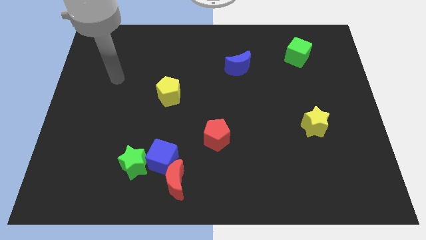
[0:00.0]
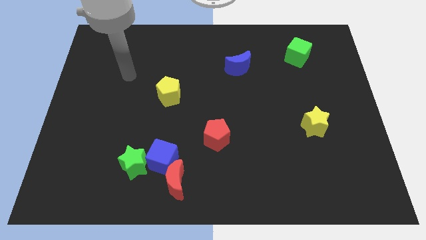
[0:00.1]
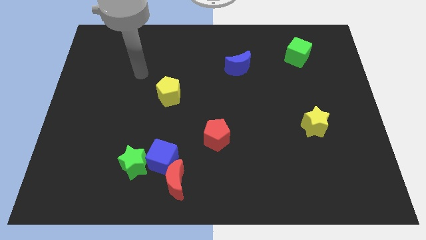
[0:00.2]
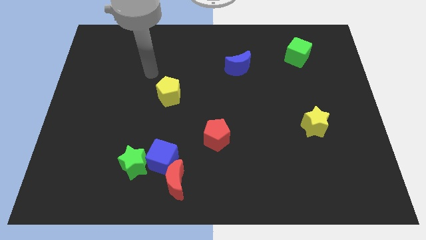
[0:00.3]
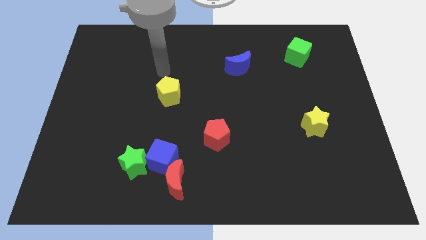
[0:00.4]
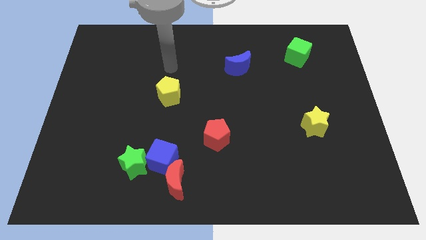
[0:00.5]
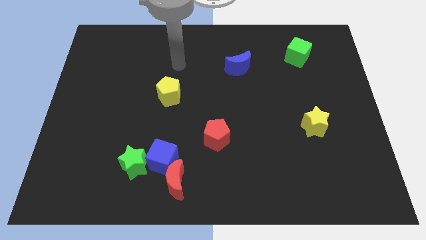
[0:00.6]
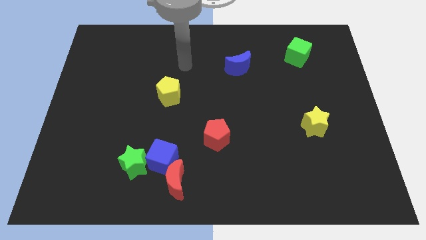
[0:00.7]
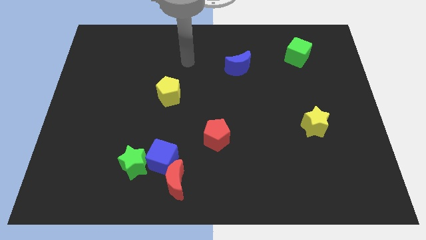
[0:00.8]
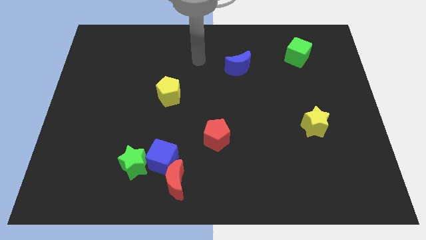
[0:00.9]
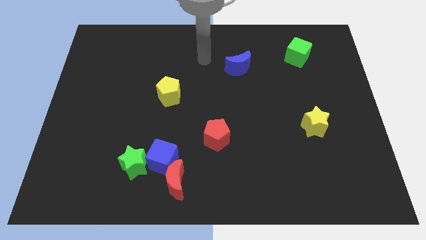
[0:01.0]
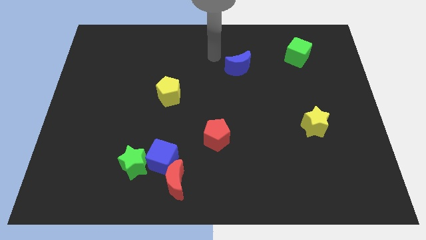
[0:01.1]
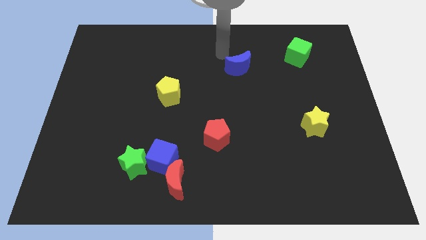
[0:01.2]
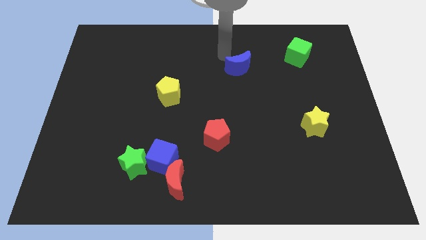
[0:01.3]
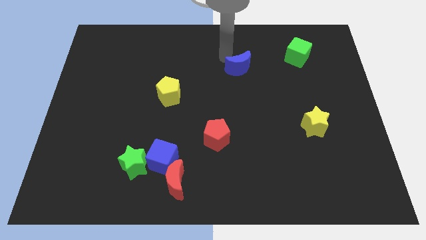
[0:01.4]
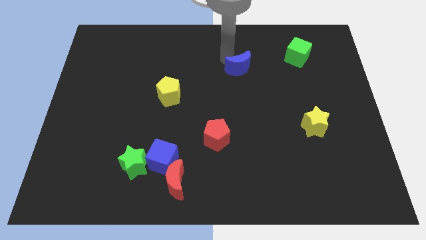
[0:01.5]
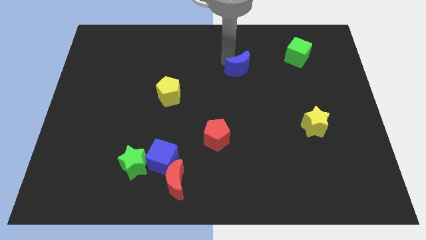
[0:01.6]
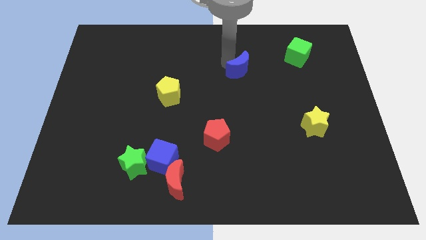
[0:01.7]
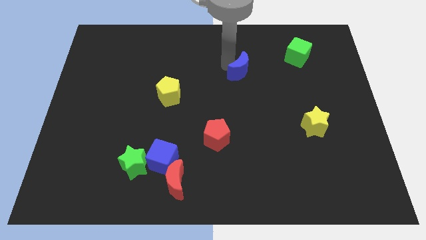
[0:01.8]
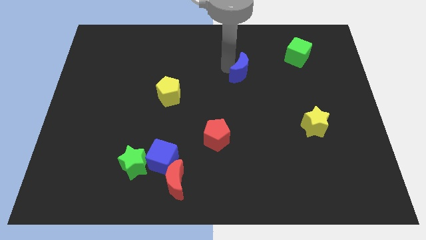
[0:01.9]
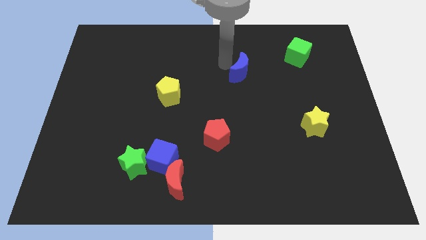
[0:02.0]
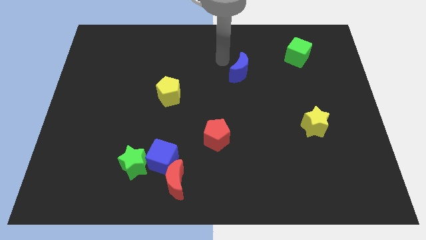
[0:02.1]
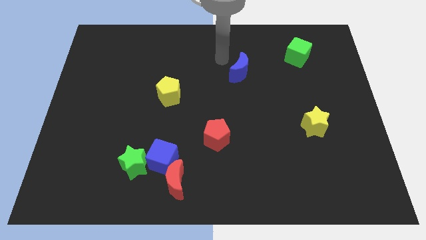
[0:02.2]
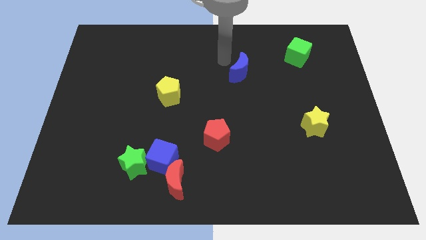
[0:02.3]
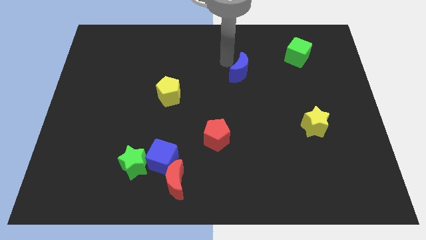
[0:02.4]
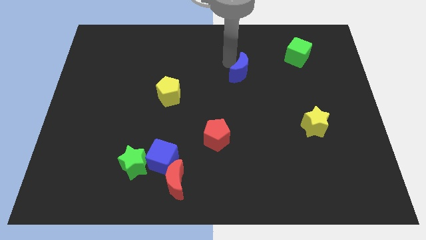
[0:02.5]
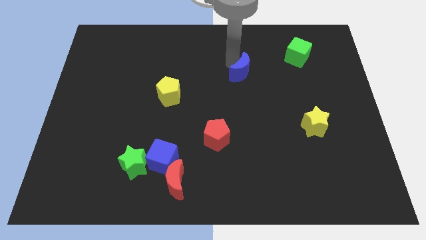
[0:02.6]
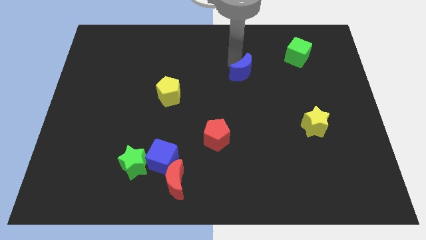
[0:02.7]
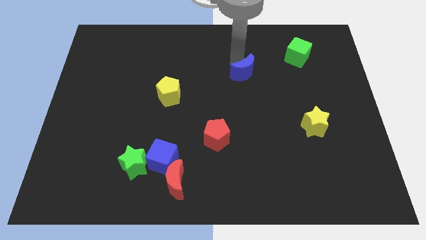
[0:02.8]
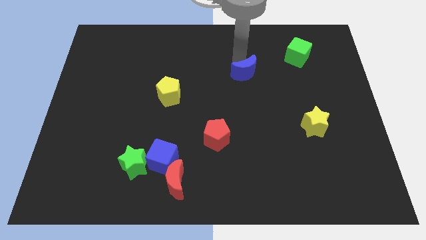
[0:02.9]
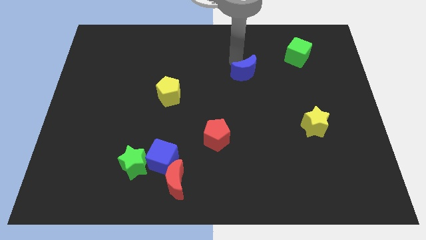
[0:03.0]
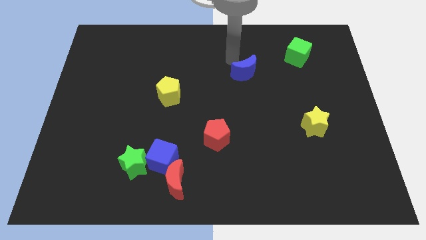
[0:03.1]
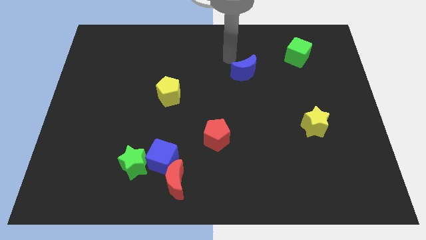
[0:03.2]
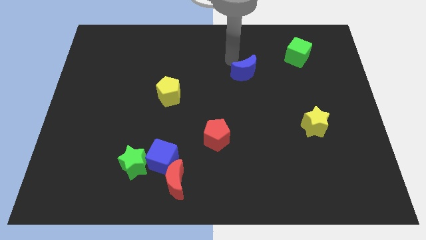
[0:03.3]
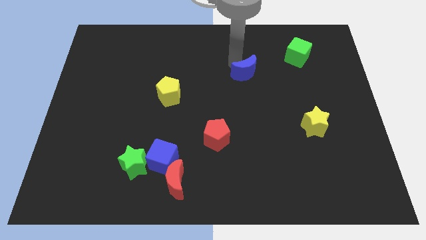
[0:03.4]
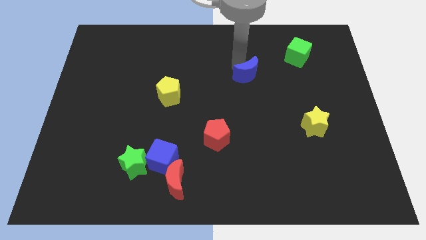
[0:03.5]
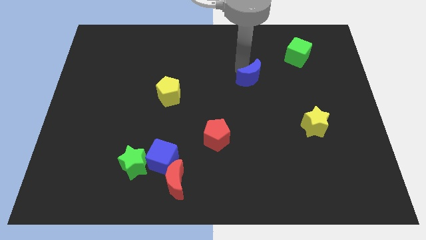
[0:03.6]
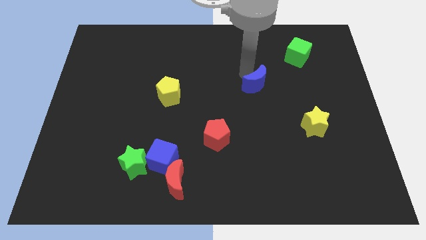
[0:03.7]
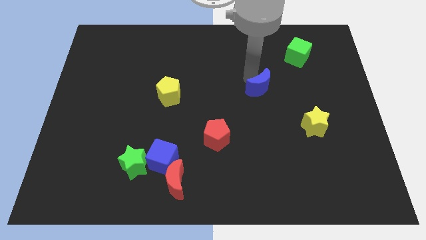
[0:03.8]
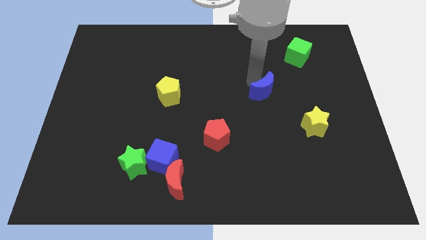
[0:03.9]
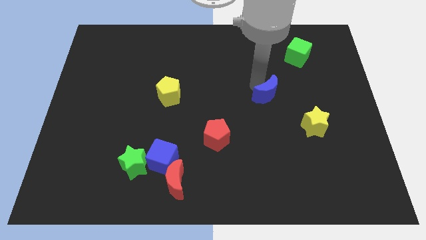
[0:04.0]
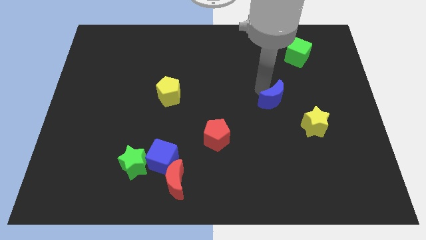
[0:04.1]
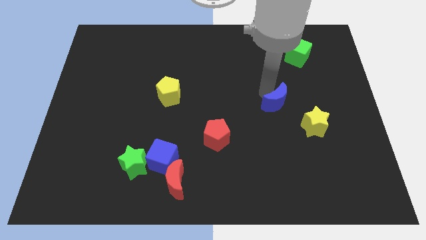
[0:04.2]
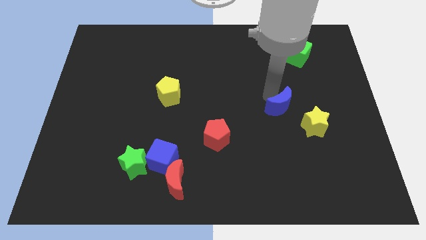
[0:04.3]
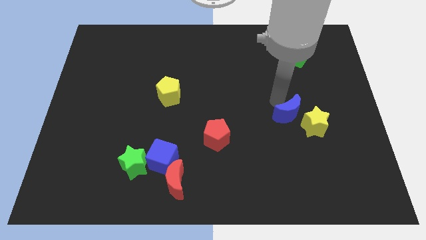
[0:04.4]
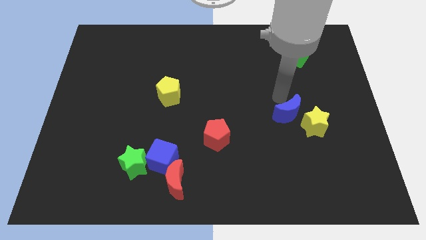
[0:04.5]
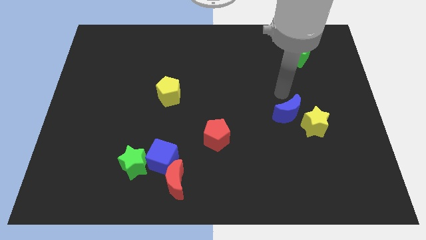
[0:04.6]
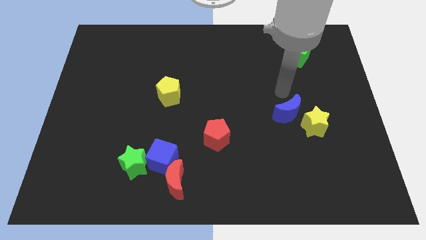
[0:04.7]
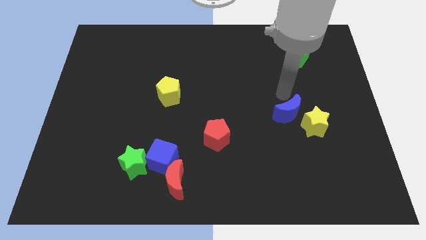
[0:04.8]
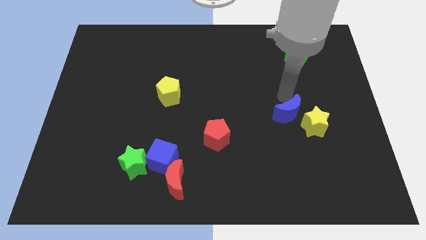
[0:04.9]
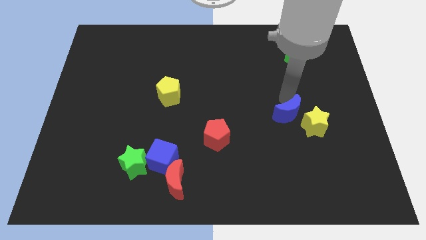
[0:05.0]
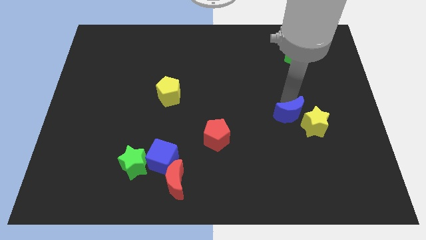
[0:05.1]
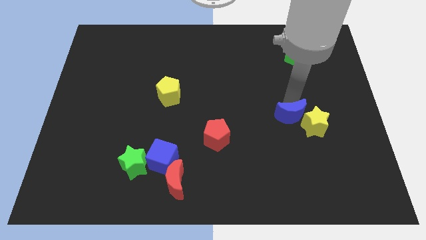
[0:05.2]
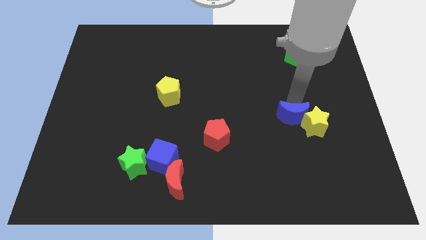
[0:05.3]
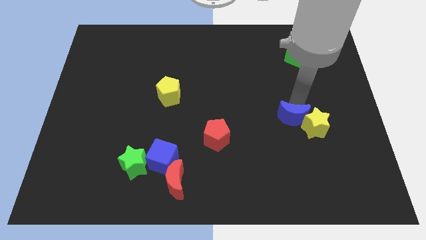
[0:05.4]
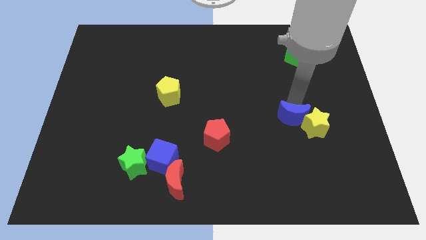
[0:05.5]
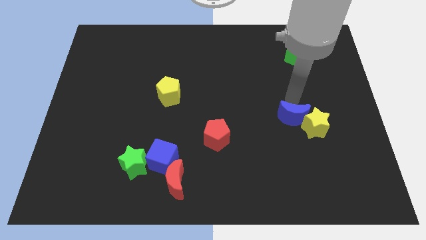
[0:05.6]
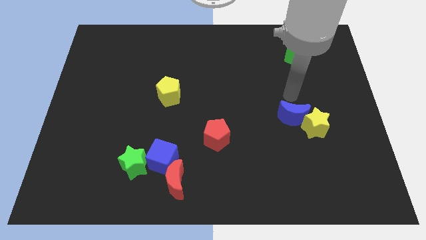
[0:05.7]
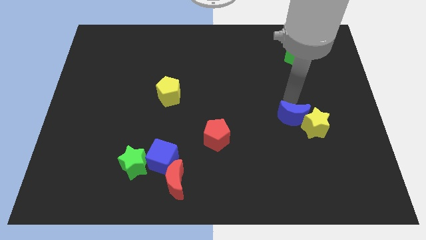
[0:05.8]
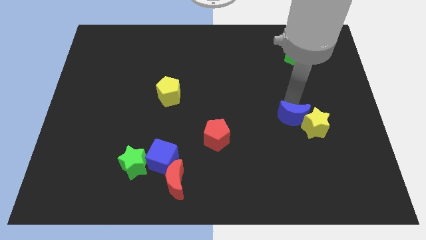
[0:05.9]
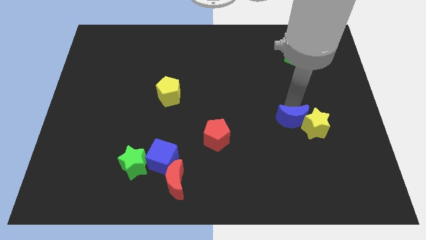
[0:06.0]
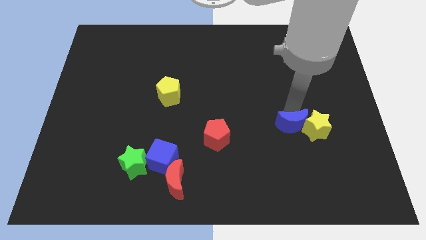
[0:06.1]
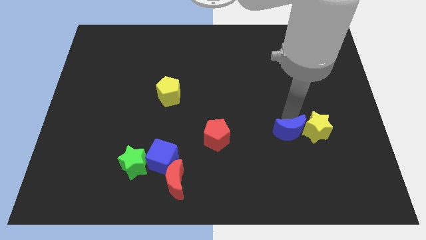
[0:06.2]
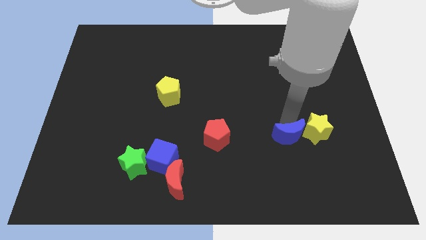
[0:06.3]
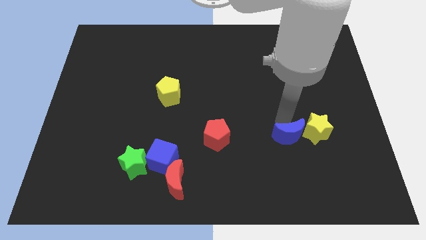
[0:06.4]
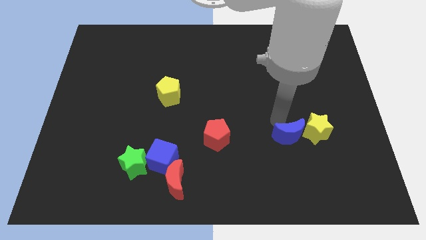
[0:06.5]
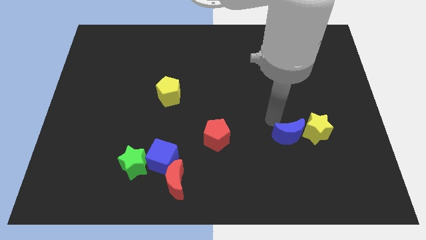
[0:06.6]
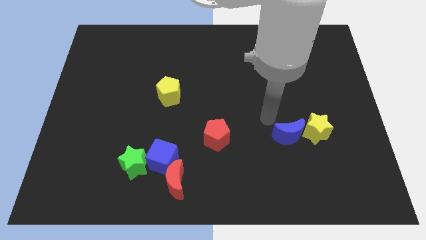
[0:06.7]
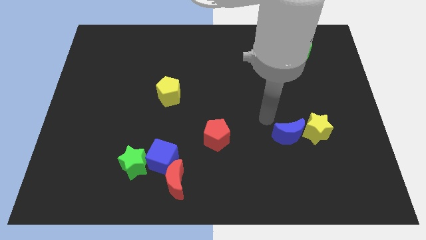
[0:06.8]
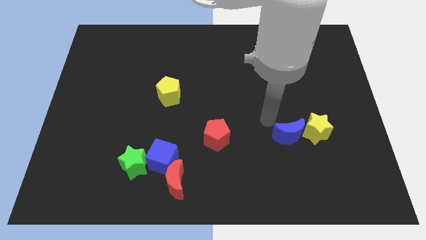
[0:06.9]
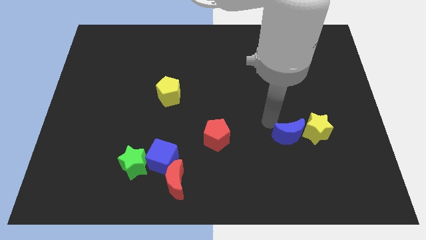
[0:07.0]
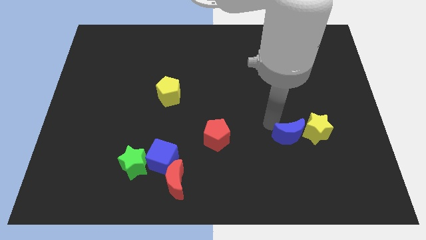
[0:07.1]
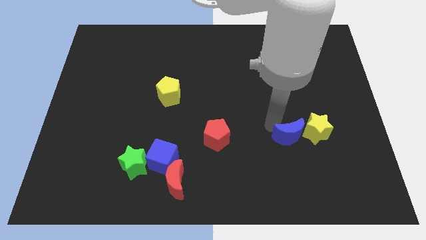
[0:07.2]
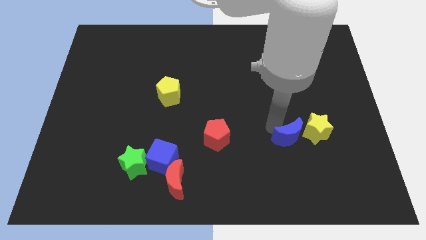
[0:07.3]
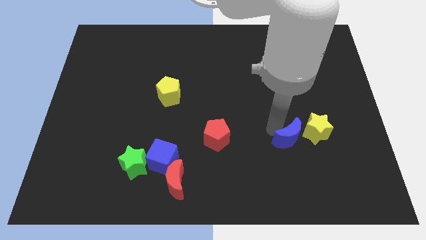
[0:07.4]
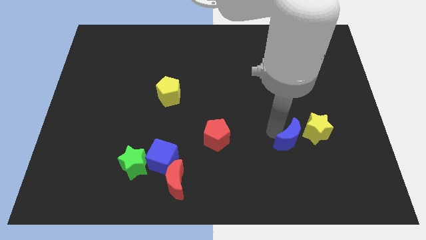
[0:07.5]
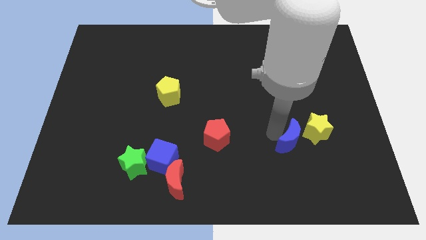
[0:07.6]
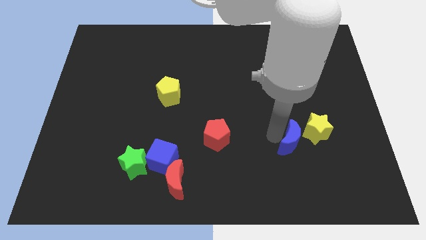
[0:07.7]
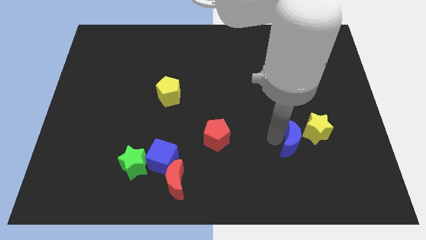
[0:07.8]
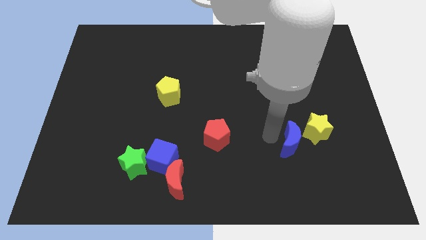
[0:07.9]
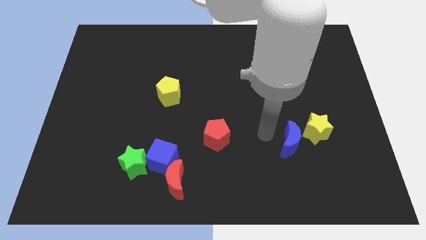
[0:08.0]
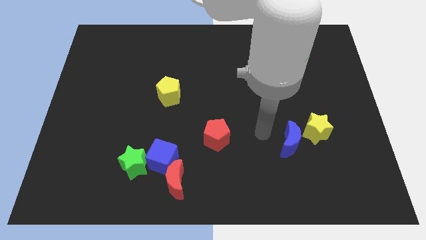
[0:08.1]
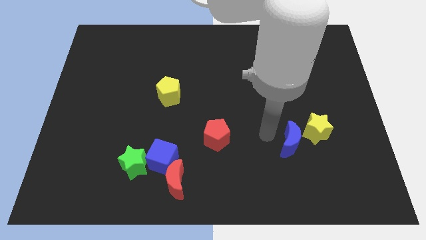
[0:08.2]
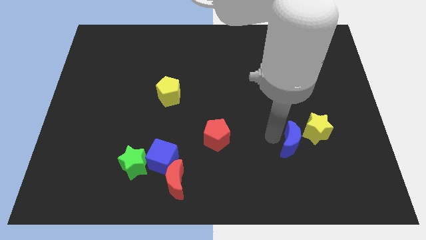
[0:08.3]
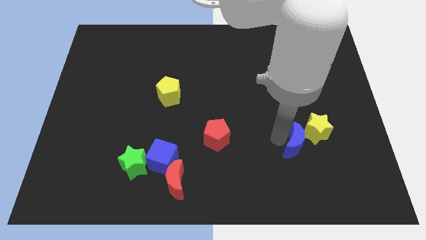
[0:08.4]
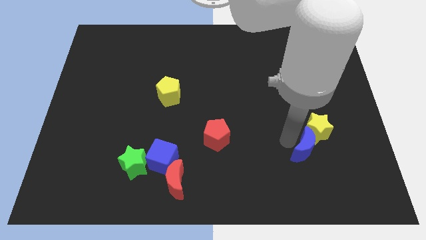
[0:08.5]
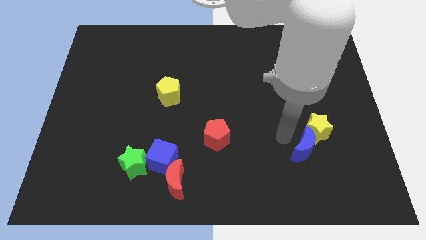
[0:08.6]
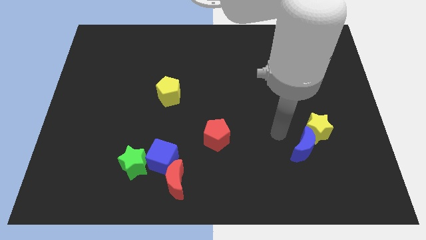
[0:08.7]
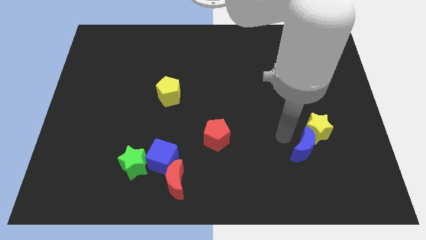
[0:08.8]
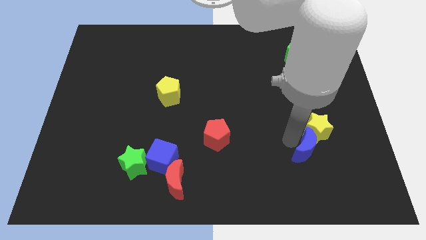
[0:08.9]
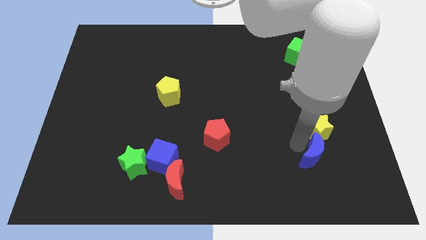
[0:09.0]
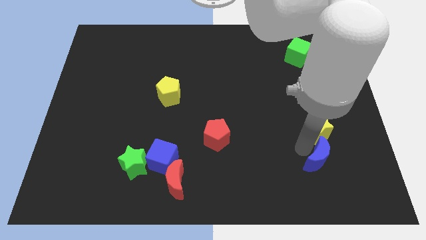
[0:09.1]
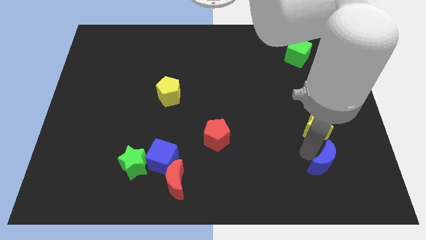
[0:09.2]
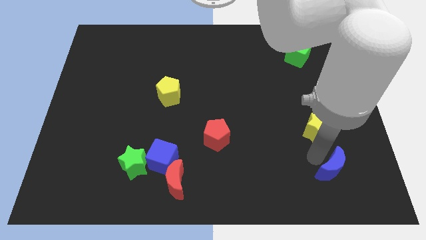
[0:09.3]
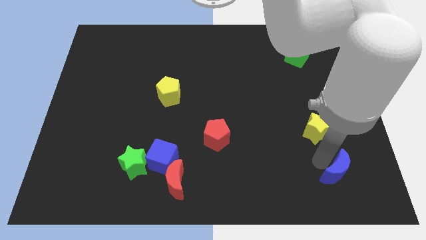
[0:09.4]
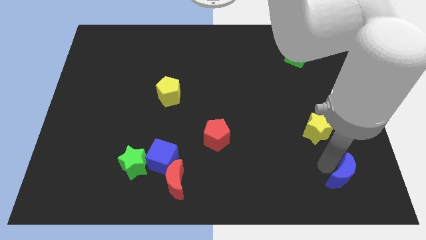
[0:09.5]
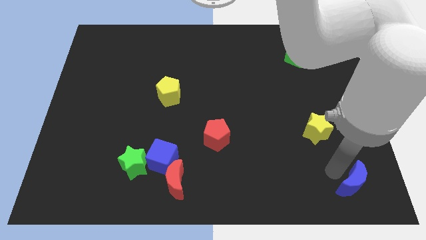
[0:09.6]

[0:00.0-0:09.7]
slide the blue moon to the lower right corner
